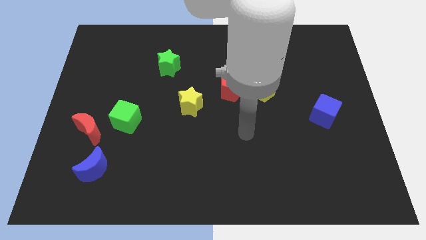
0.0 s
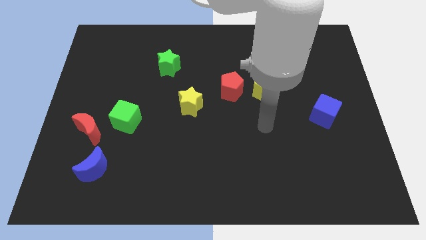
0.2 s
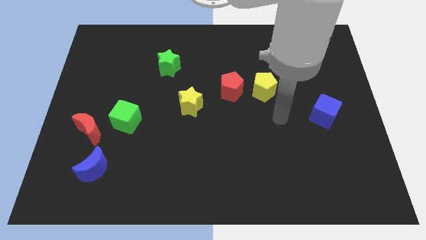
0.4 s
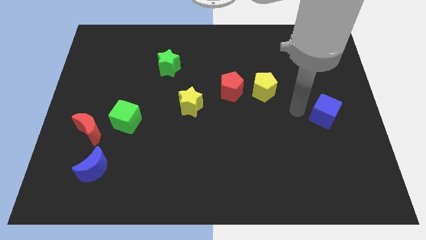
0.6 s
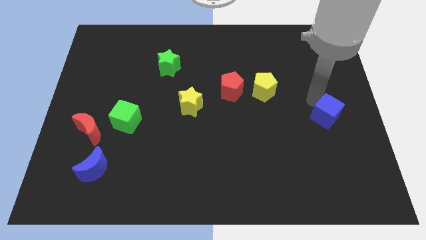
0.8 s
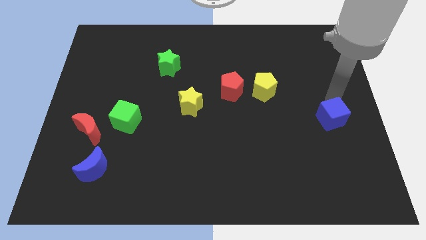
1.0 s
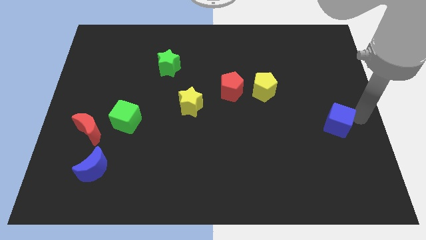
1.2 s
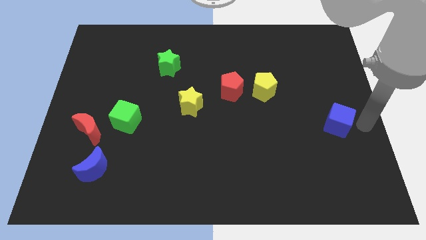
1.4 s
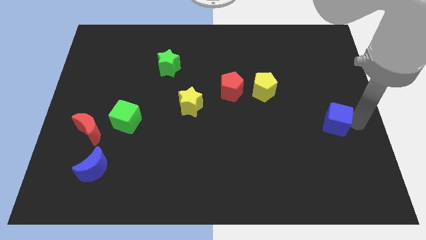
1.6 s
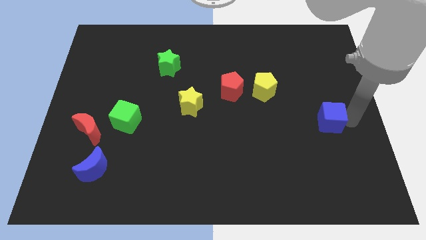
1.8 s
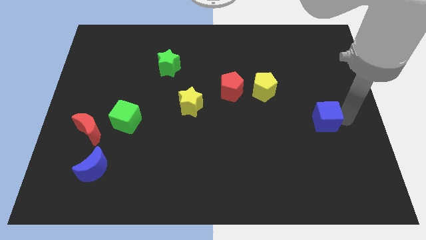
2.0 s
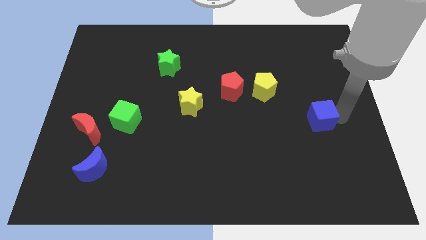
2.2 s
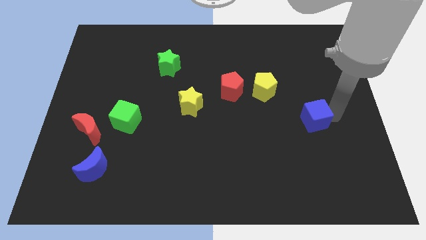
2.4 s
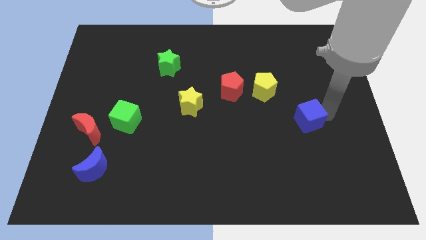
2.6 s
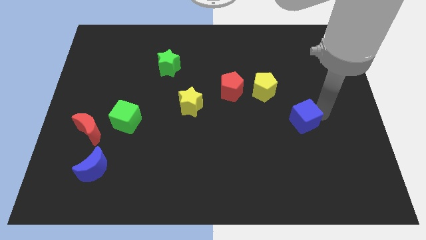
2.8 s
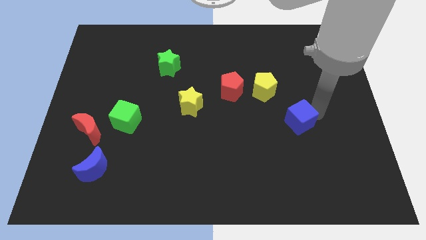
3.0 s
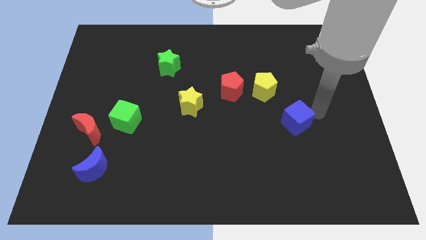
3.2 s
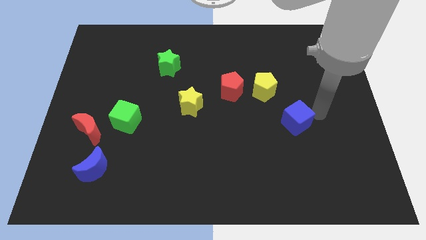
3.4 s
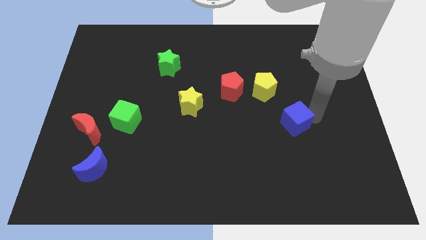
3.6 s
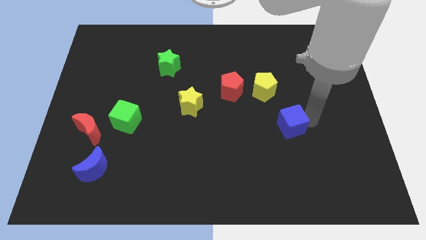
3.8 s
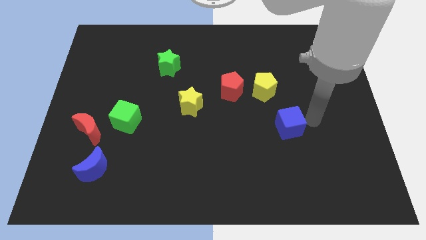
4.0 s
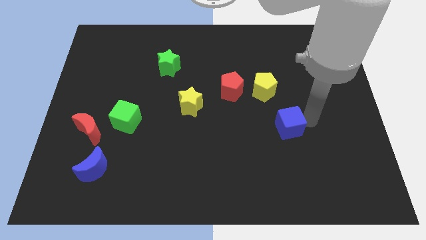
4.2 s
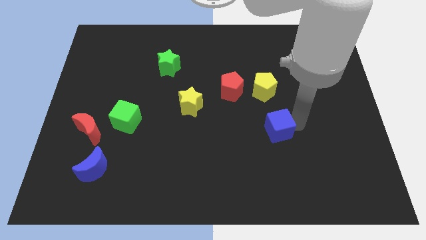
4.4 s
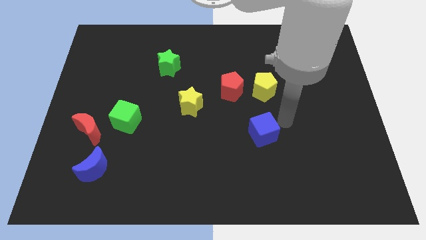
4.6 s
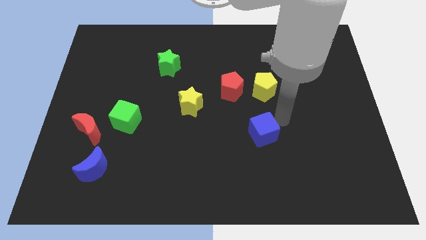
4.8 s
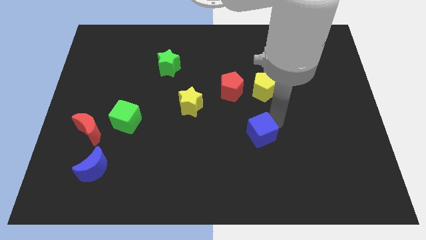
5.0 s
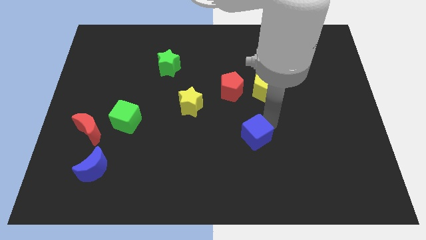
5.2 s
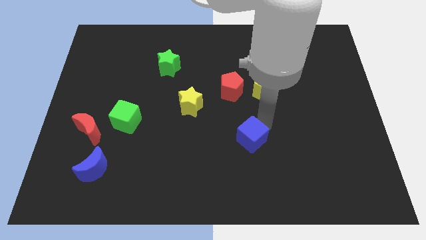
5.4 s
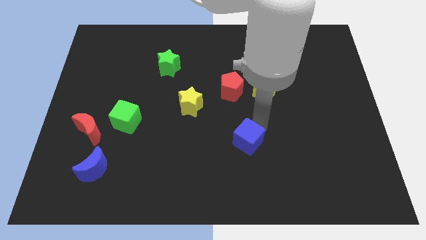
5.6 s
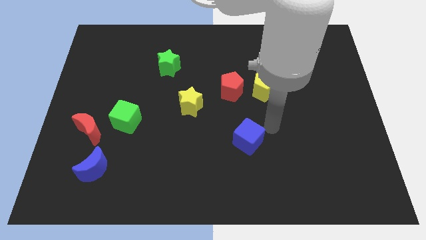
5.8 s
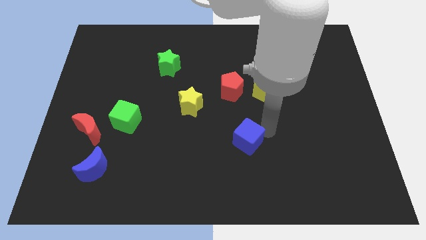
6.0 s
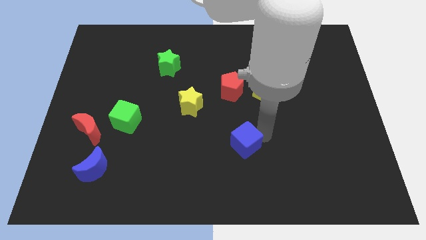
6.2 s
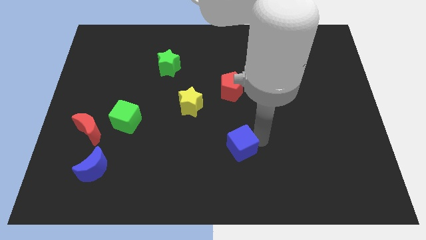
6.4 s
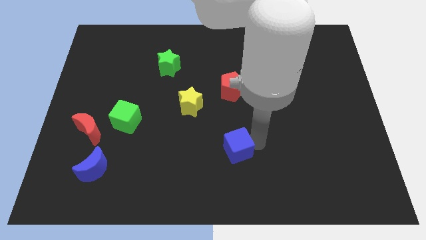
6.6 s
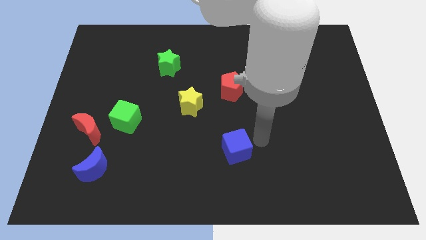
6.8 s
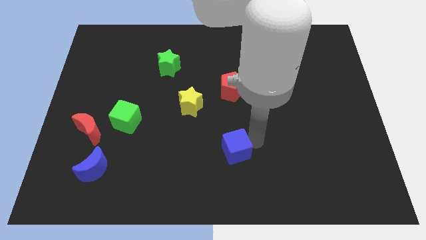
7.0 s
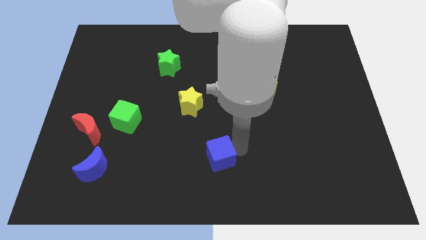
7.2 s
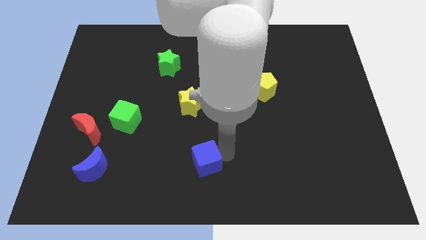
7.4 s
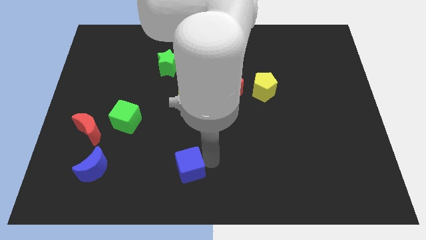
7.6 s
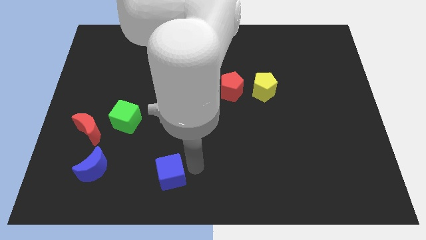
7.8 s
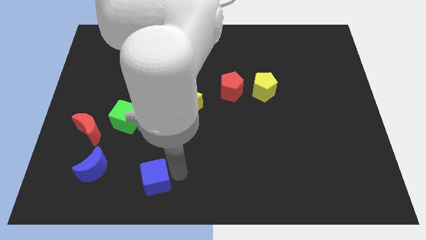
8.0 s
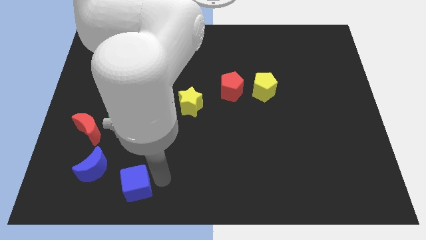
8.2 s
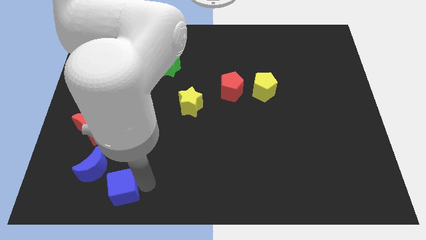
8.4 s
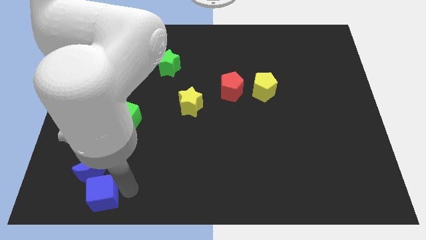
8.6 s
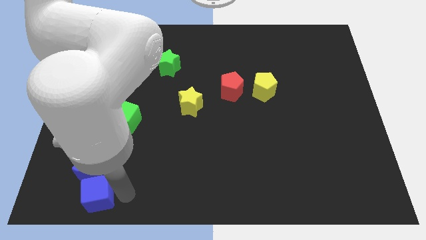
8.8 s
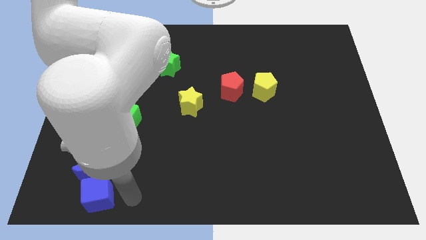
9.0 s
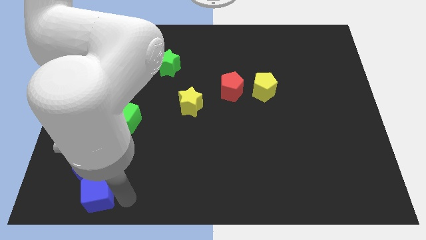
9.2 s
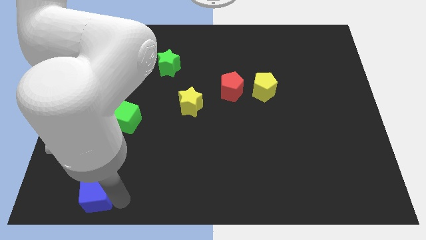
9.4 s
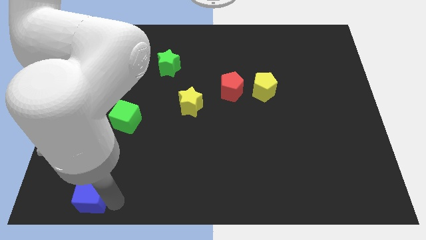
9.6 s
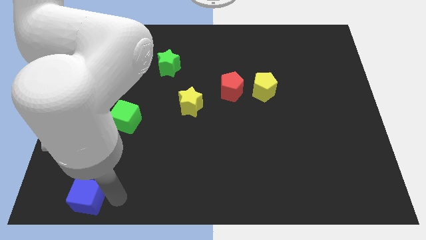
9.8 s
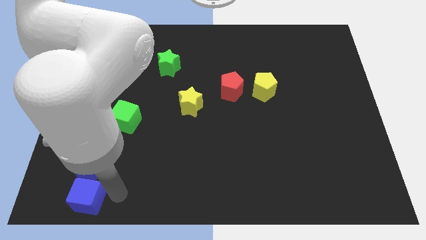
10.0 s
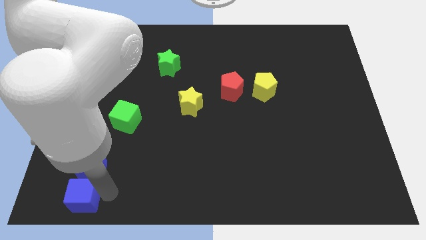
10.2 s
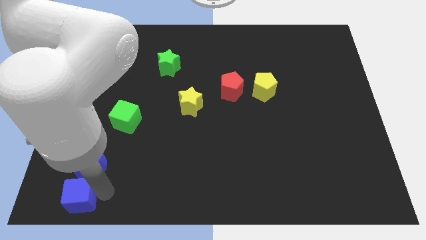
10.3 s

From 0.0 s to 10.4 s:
put the blue cube to the lower left corner

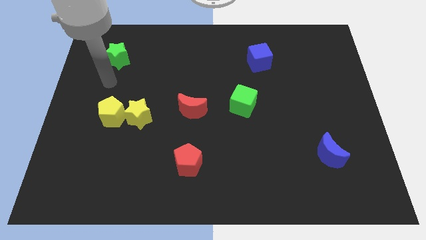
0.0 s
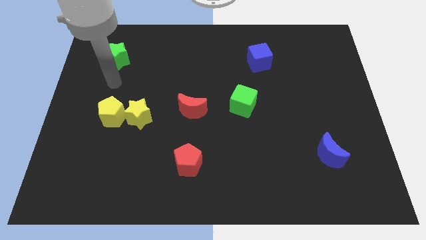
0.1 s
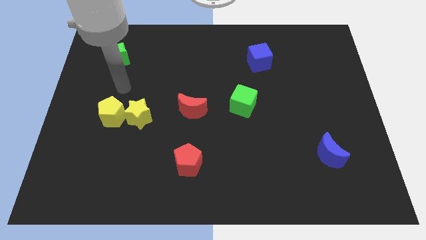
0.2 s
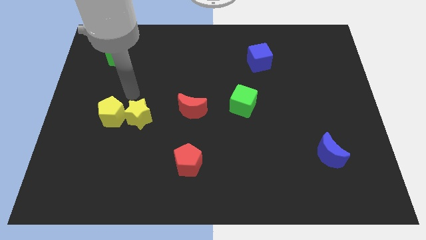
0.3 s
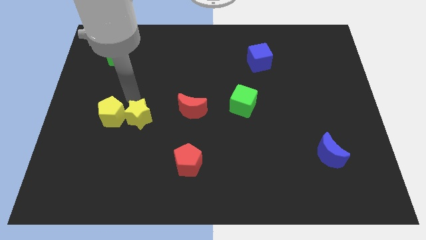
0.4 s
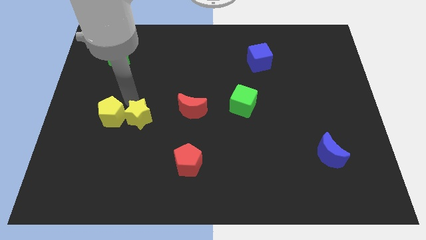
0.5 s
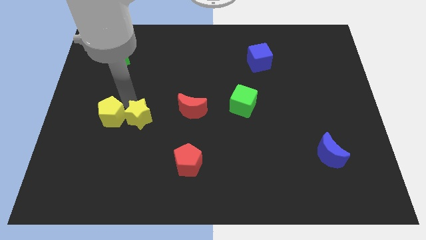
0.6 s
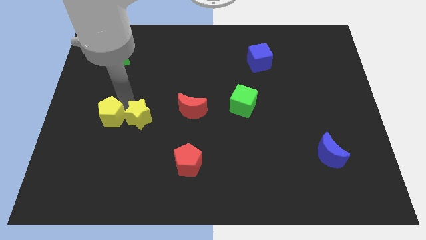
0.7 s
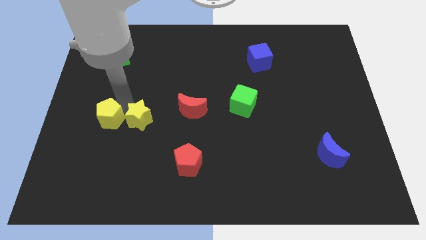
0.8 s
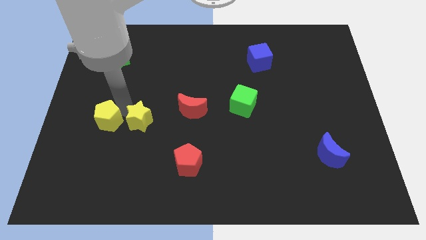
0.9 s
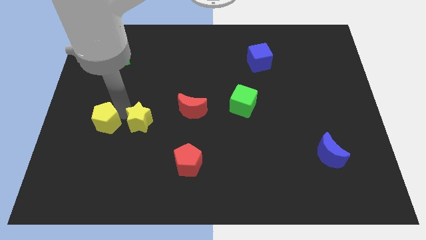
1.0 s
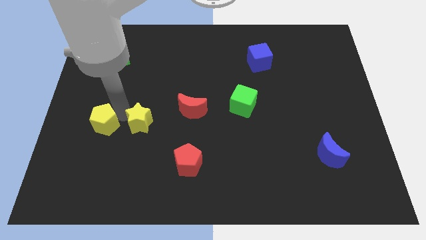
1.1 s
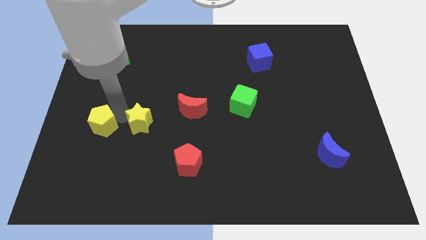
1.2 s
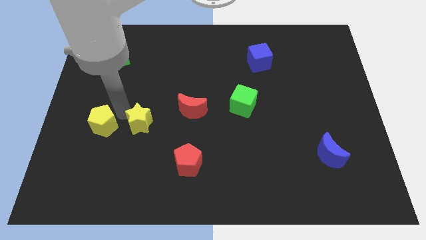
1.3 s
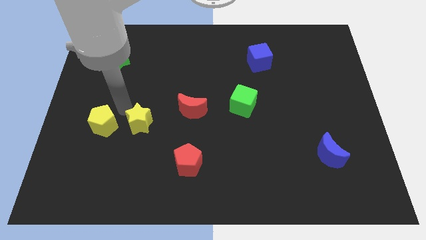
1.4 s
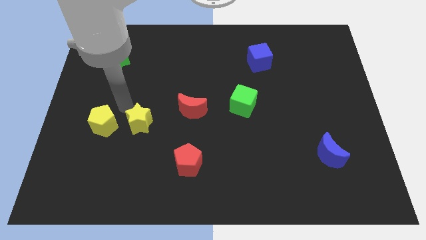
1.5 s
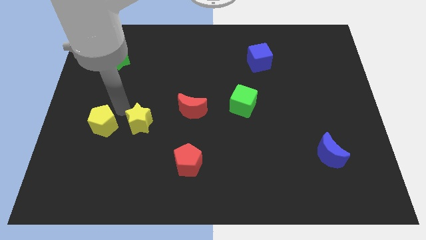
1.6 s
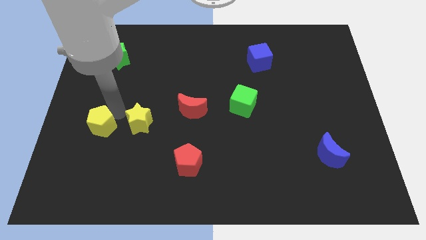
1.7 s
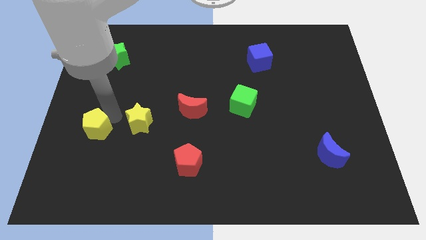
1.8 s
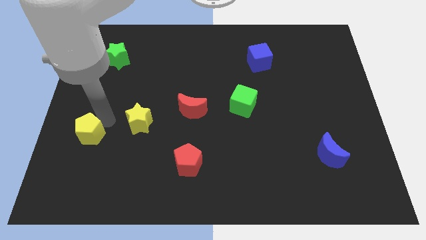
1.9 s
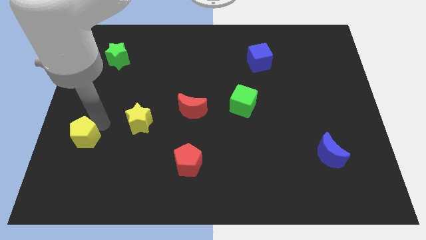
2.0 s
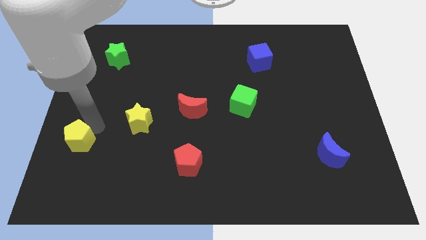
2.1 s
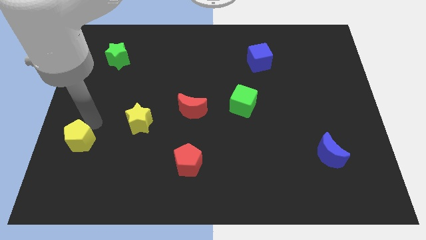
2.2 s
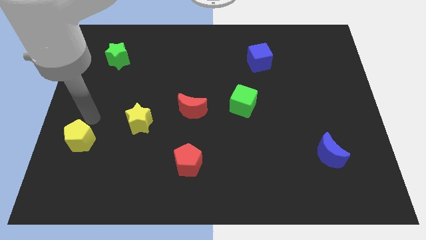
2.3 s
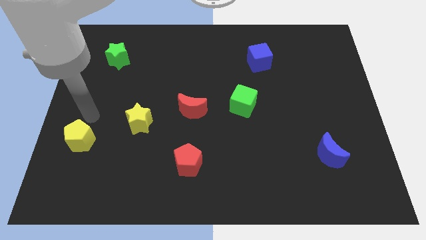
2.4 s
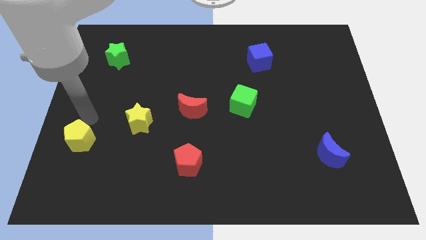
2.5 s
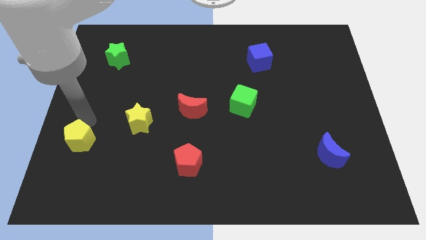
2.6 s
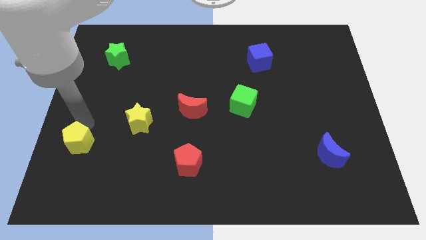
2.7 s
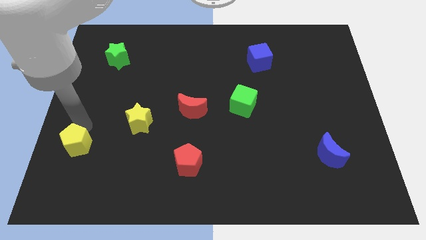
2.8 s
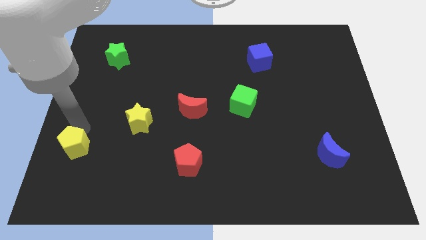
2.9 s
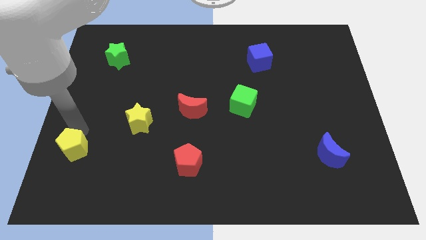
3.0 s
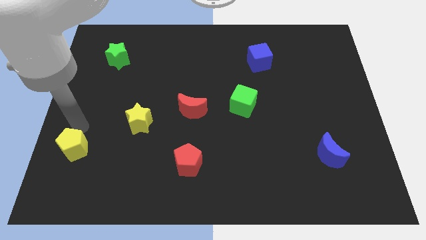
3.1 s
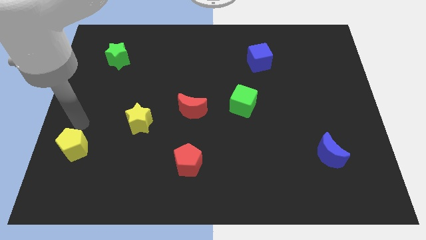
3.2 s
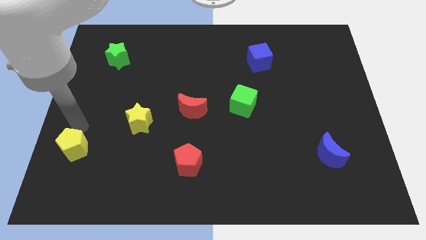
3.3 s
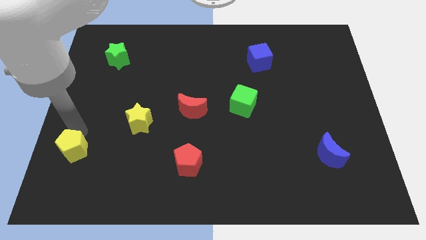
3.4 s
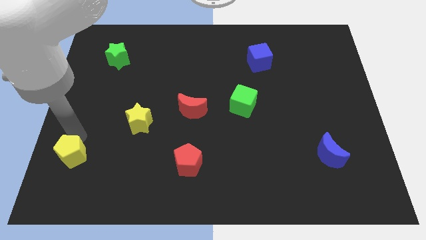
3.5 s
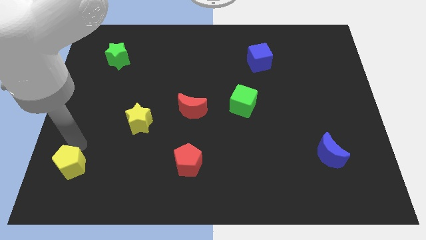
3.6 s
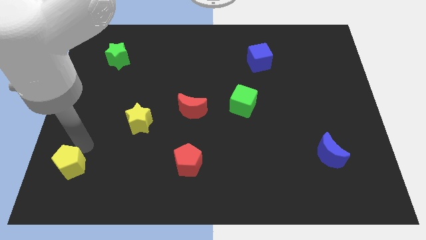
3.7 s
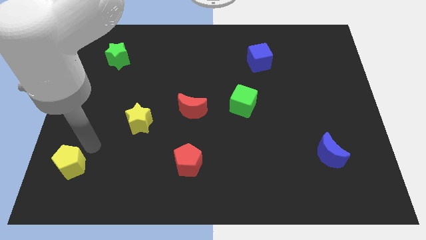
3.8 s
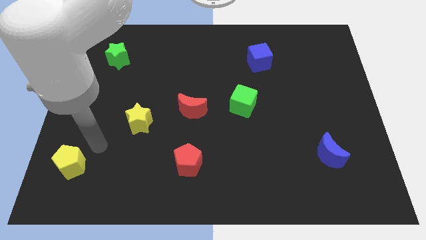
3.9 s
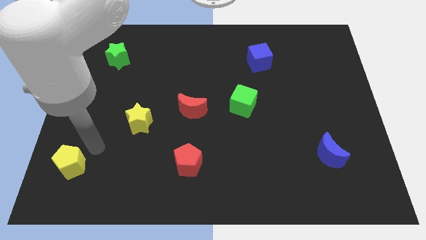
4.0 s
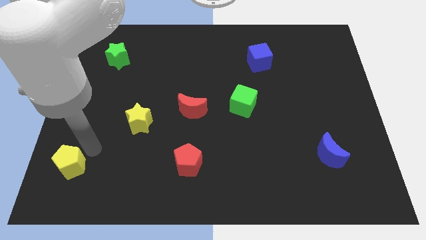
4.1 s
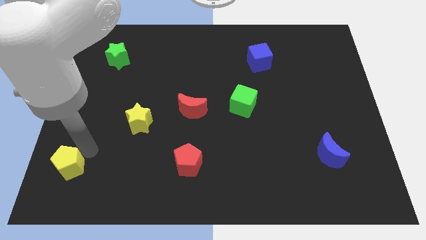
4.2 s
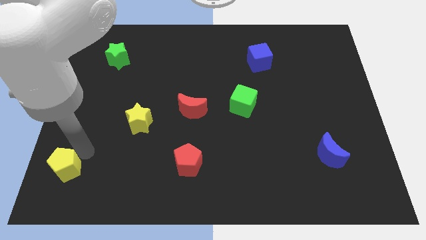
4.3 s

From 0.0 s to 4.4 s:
move the yellow pentagon to the bottom left corner
